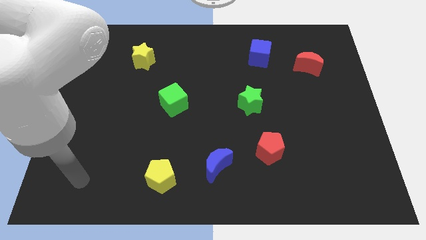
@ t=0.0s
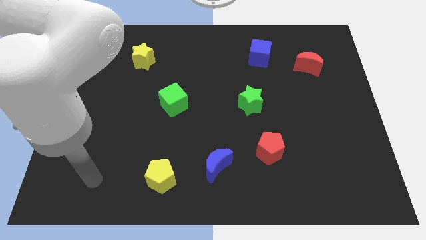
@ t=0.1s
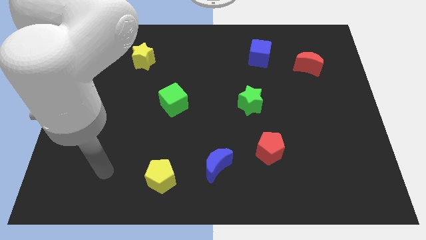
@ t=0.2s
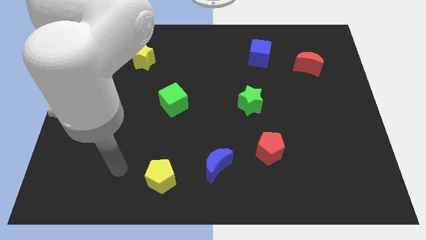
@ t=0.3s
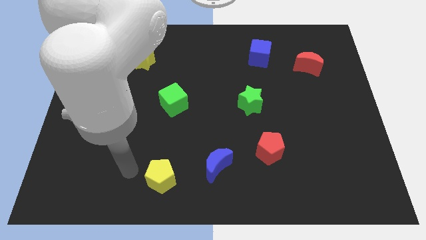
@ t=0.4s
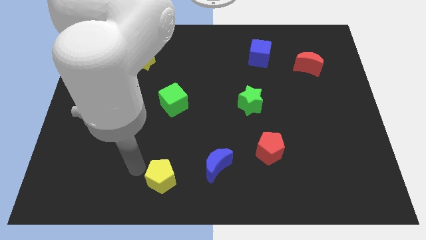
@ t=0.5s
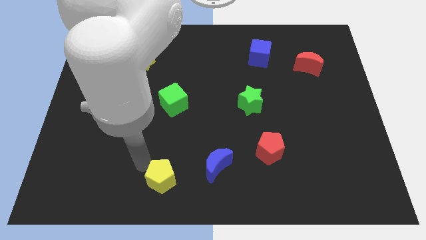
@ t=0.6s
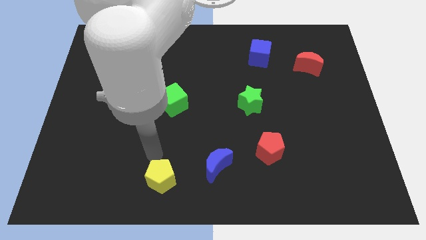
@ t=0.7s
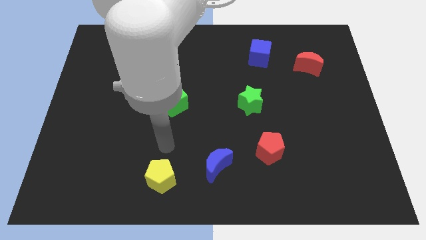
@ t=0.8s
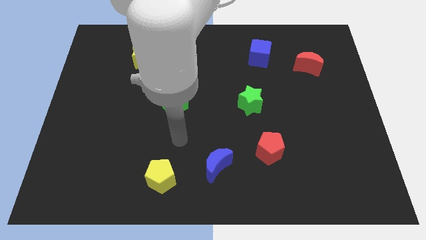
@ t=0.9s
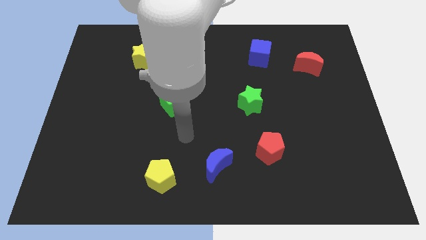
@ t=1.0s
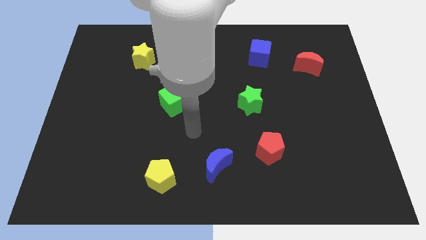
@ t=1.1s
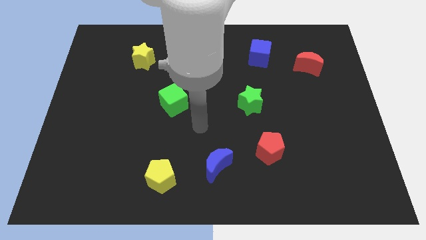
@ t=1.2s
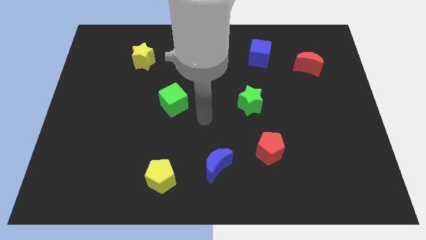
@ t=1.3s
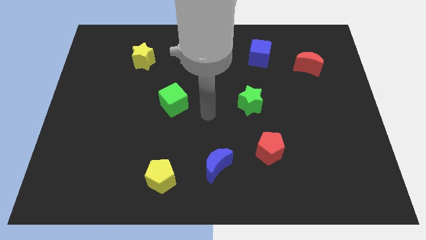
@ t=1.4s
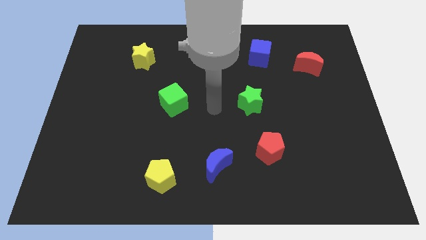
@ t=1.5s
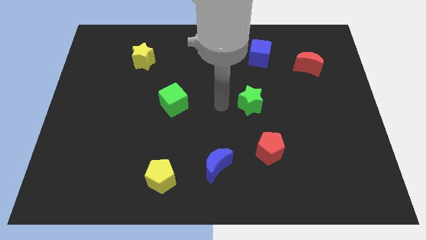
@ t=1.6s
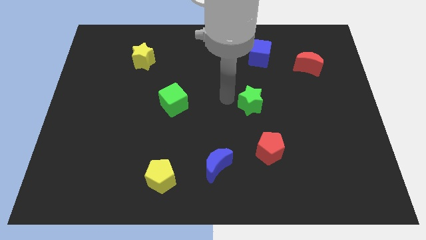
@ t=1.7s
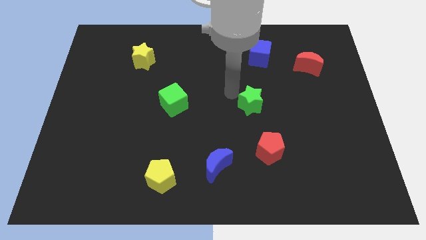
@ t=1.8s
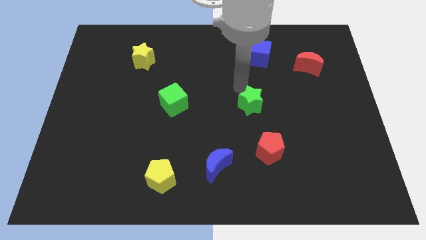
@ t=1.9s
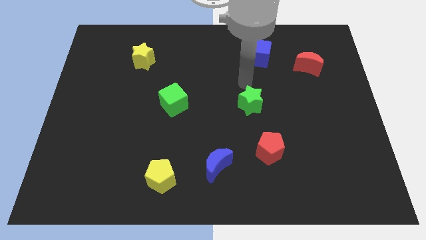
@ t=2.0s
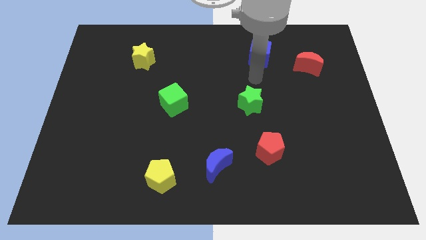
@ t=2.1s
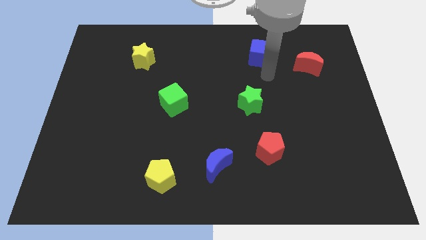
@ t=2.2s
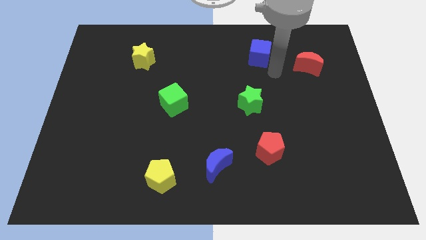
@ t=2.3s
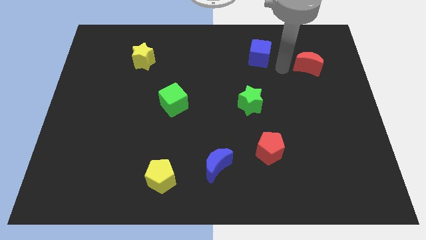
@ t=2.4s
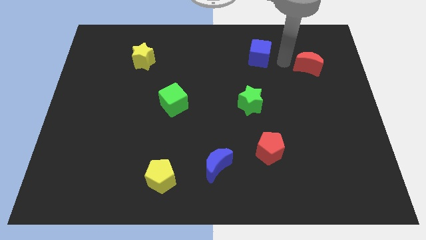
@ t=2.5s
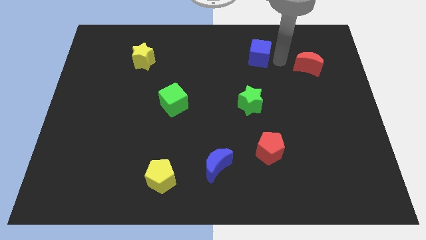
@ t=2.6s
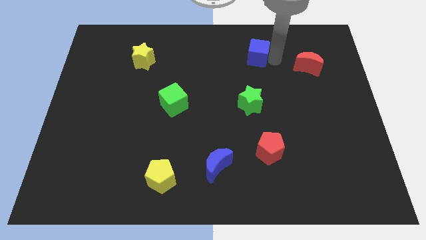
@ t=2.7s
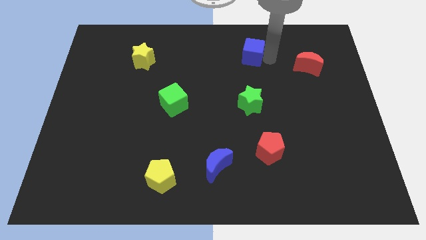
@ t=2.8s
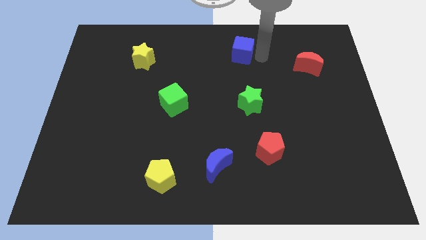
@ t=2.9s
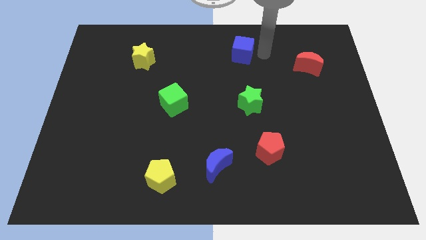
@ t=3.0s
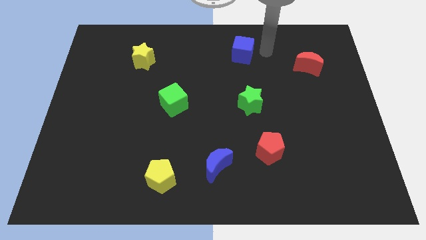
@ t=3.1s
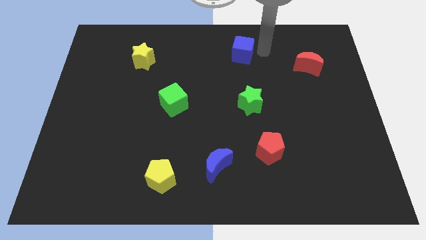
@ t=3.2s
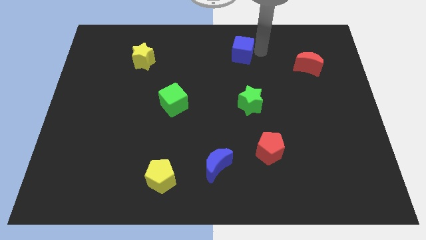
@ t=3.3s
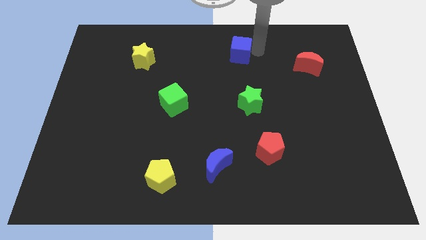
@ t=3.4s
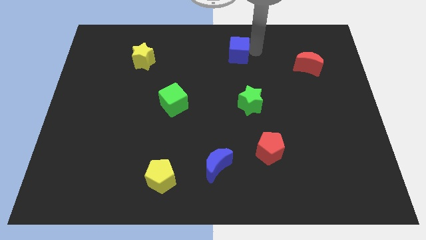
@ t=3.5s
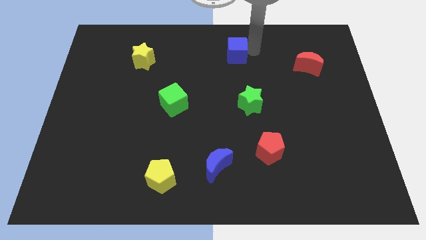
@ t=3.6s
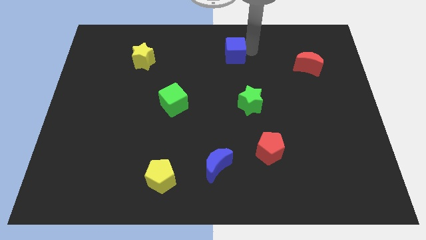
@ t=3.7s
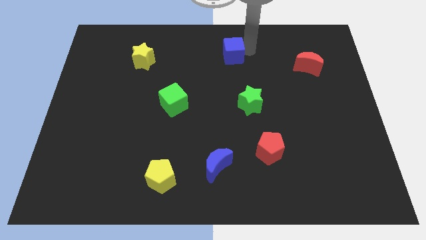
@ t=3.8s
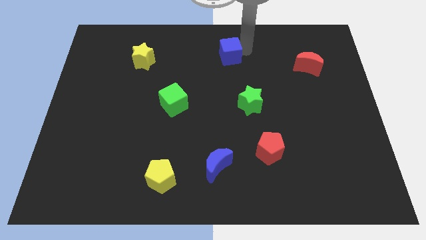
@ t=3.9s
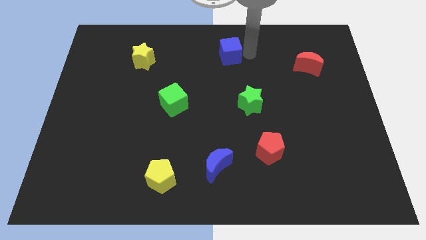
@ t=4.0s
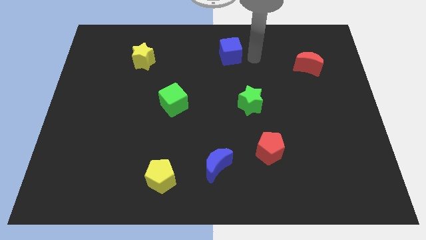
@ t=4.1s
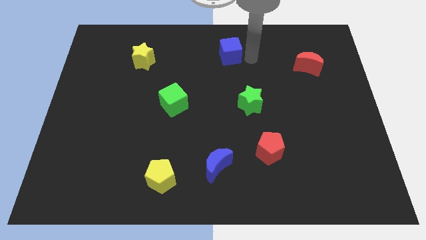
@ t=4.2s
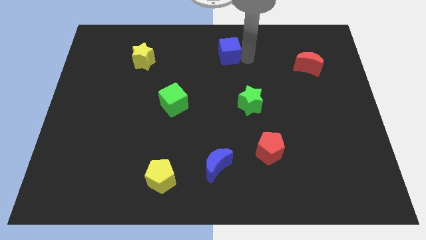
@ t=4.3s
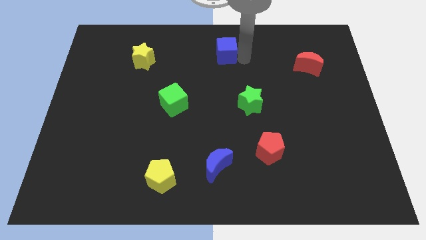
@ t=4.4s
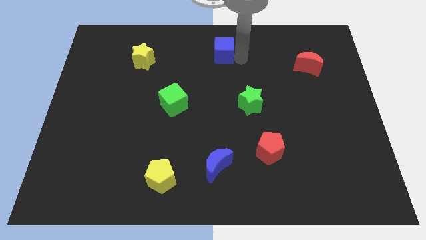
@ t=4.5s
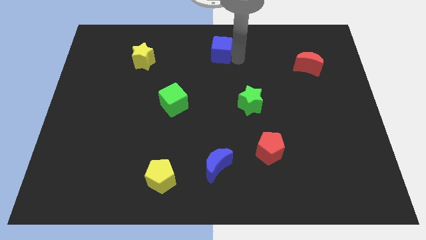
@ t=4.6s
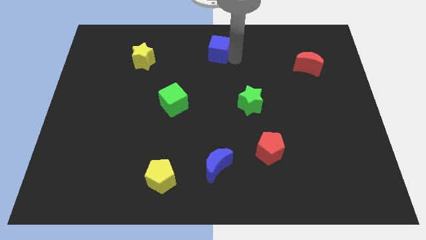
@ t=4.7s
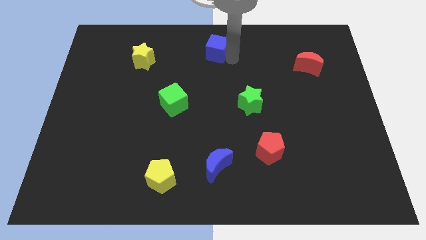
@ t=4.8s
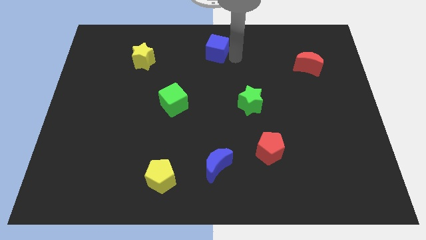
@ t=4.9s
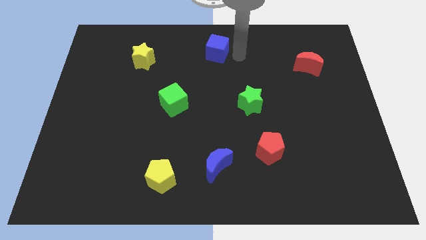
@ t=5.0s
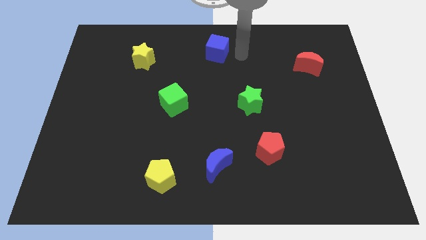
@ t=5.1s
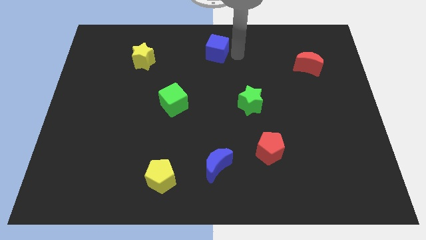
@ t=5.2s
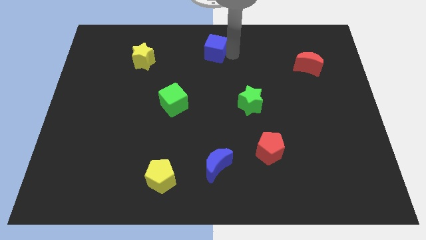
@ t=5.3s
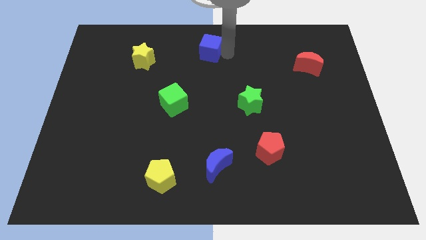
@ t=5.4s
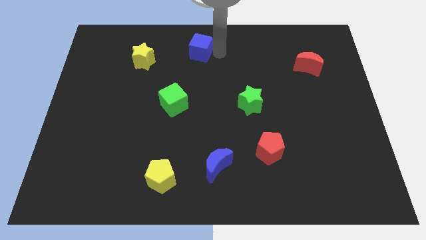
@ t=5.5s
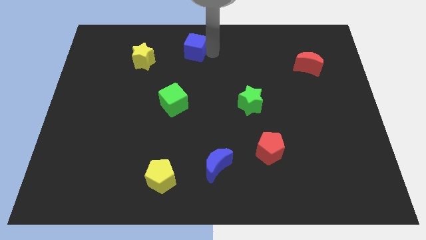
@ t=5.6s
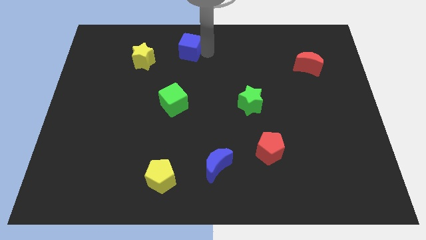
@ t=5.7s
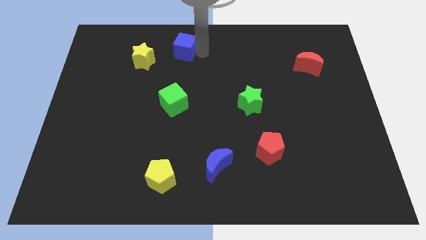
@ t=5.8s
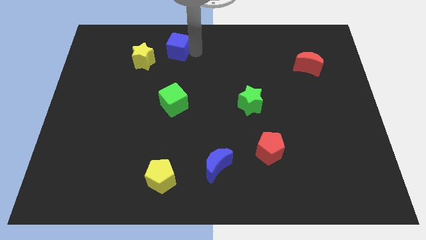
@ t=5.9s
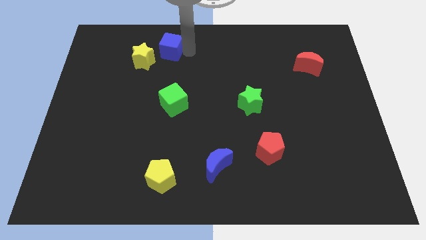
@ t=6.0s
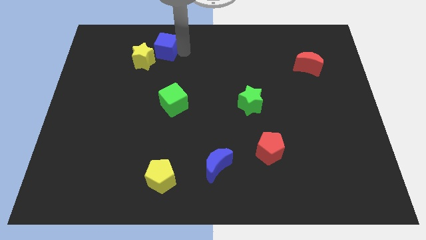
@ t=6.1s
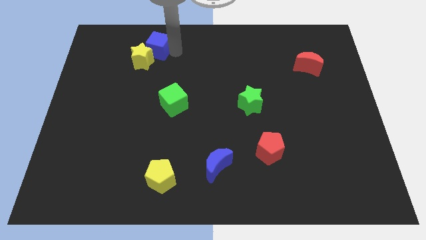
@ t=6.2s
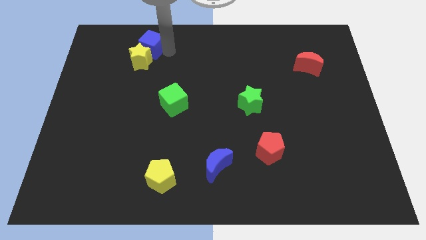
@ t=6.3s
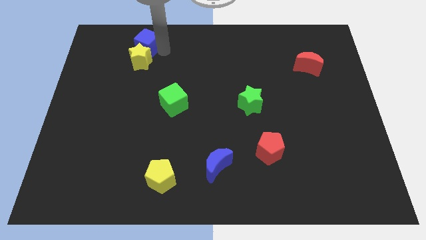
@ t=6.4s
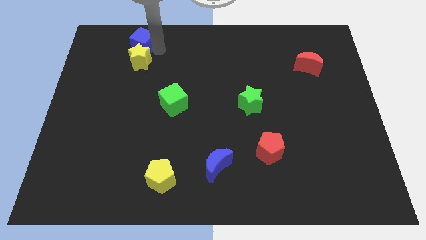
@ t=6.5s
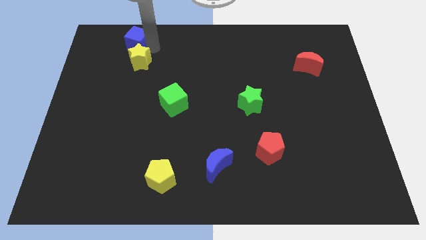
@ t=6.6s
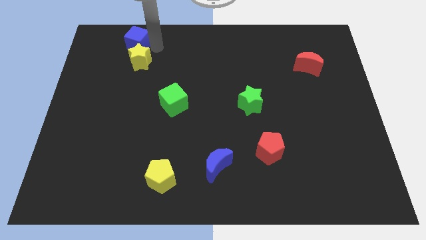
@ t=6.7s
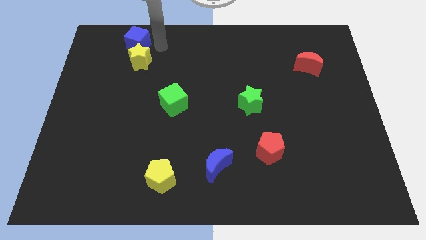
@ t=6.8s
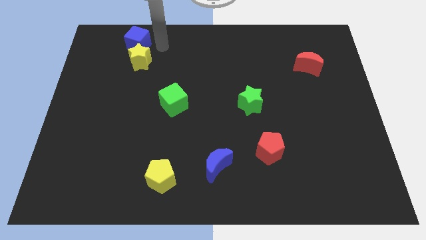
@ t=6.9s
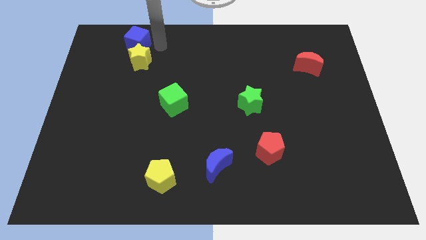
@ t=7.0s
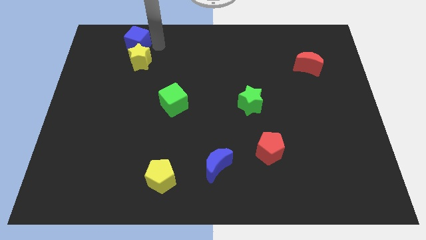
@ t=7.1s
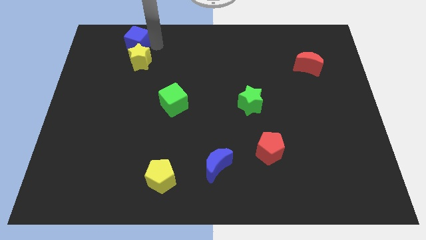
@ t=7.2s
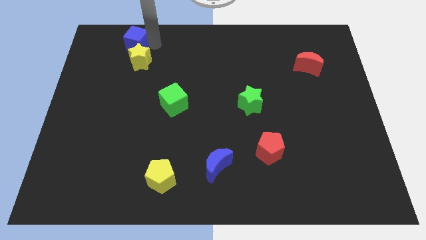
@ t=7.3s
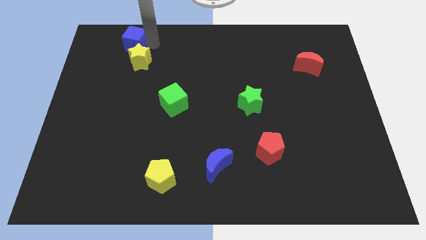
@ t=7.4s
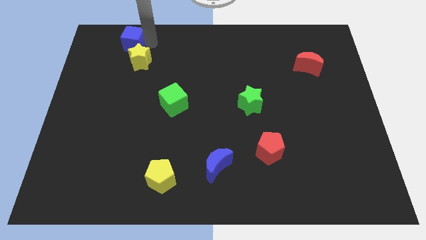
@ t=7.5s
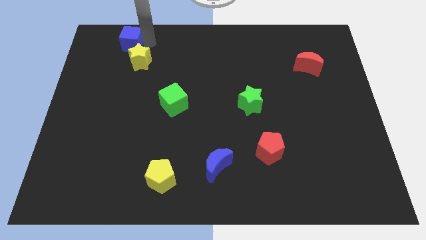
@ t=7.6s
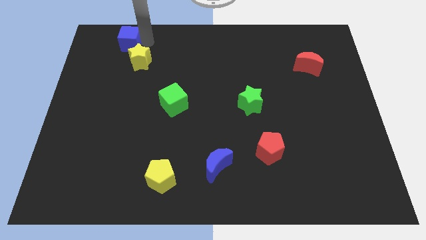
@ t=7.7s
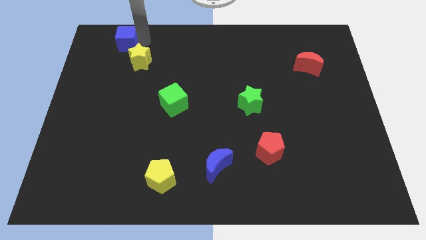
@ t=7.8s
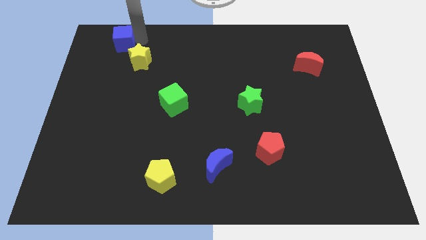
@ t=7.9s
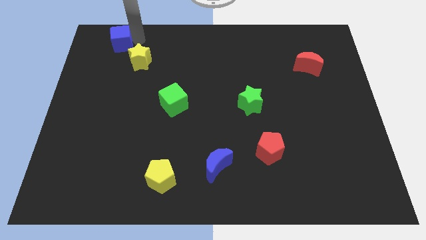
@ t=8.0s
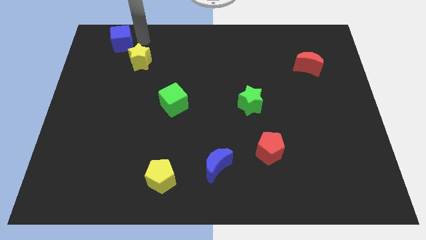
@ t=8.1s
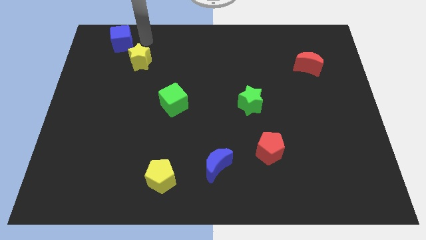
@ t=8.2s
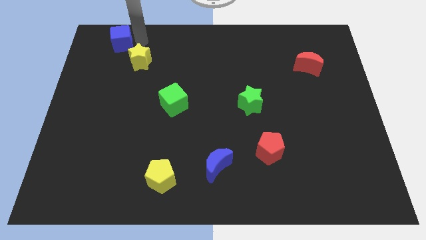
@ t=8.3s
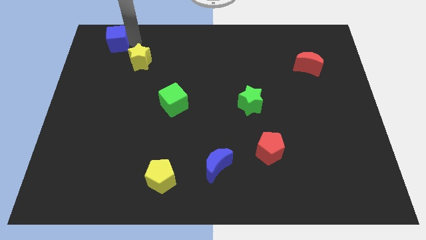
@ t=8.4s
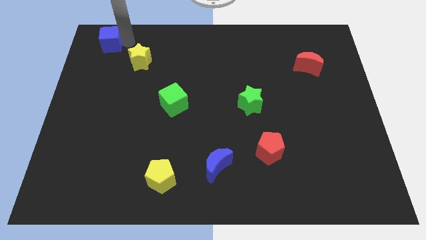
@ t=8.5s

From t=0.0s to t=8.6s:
put the blue cube to the top left corner
